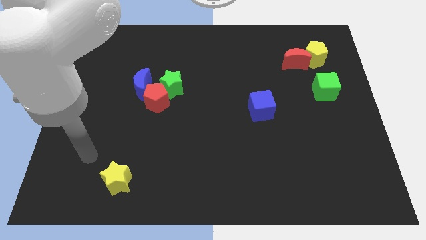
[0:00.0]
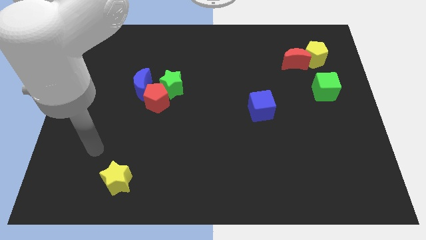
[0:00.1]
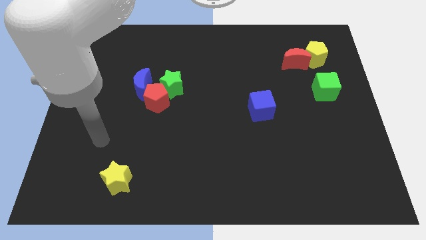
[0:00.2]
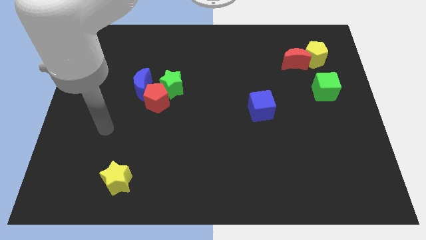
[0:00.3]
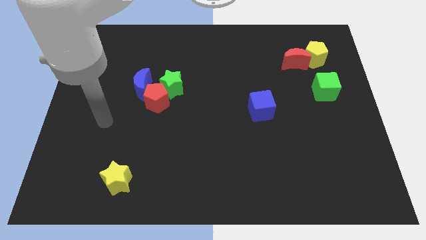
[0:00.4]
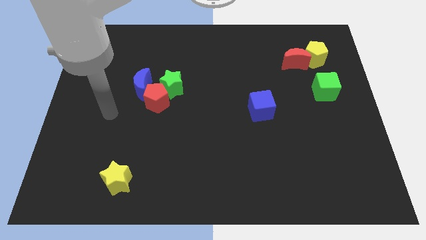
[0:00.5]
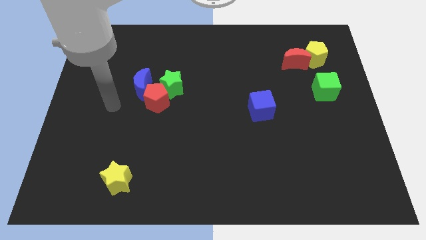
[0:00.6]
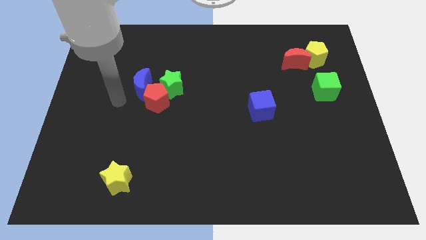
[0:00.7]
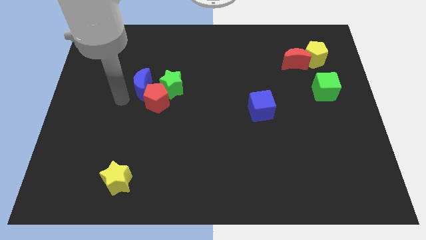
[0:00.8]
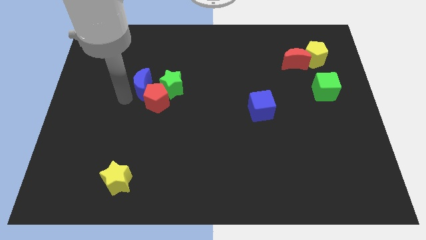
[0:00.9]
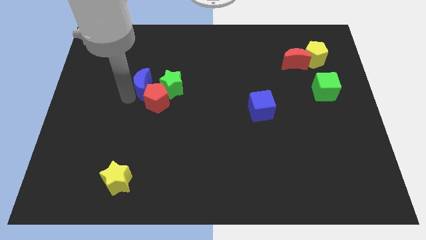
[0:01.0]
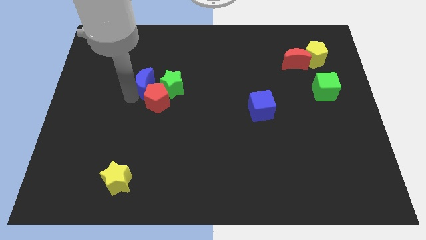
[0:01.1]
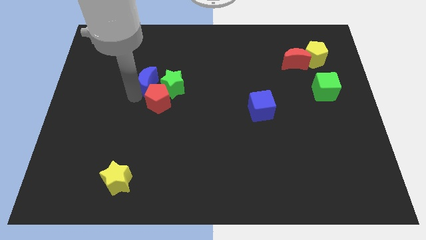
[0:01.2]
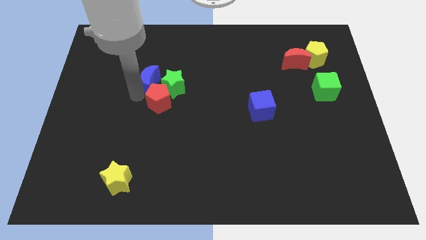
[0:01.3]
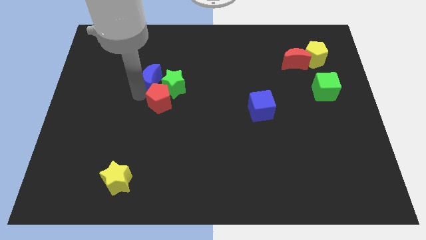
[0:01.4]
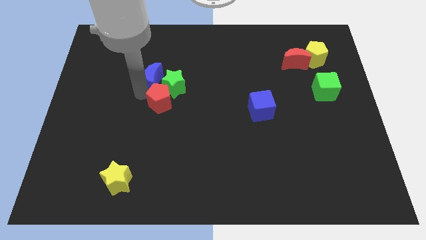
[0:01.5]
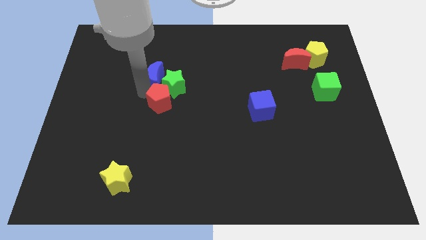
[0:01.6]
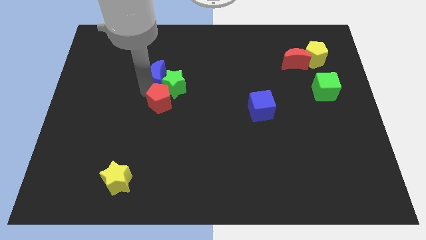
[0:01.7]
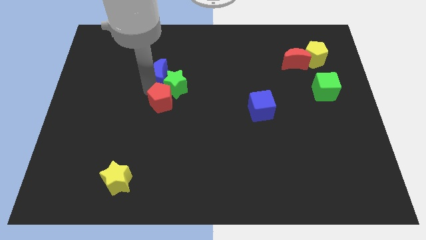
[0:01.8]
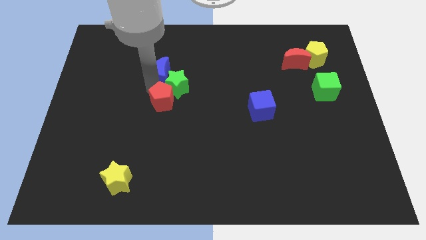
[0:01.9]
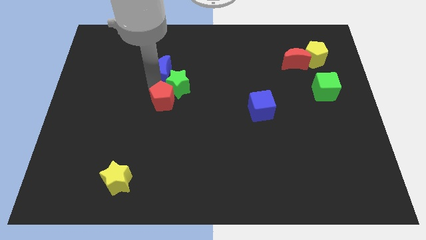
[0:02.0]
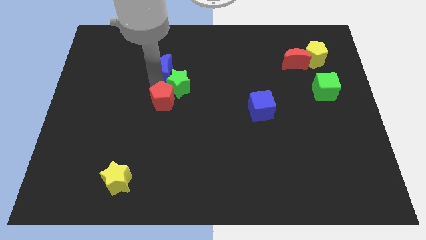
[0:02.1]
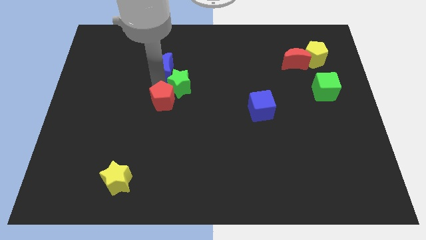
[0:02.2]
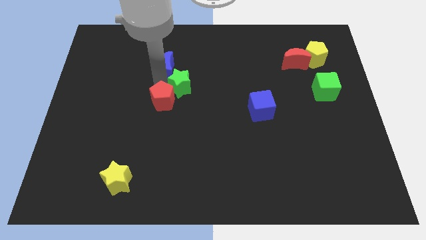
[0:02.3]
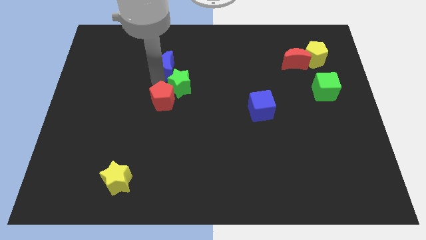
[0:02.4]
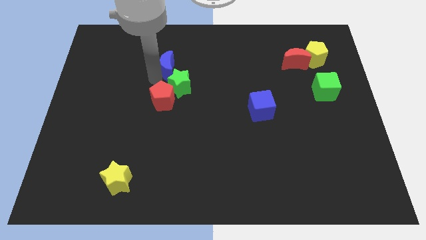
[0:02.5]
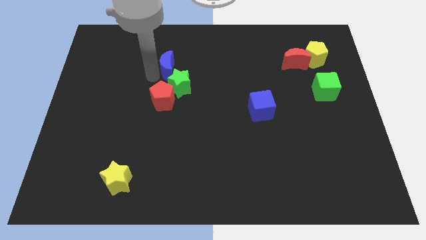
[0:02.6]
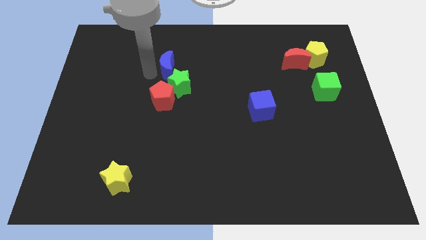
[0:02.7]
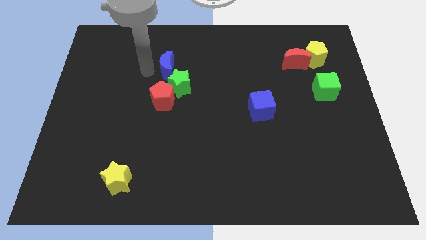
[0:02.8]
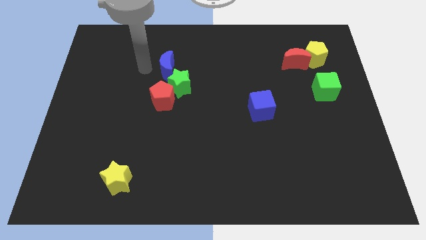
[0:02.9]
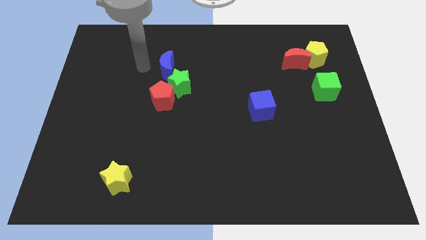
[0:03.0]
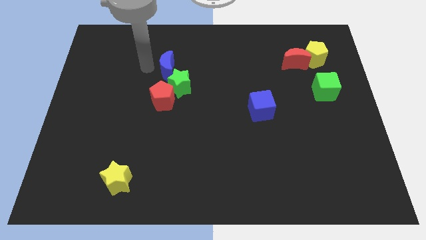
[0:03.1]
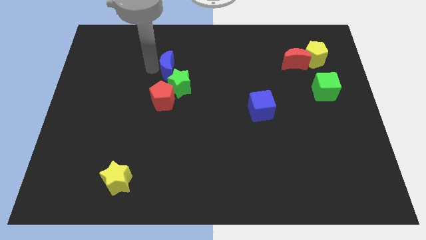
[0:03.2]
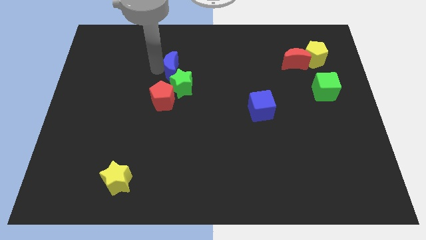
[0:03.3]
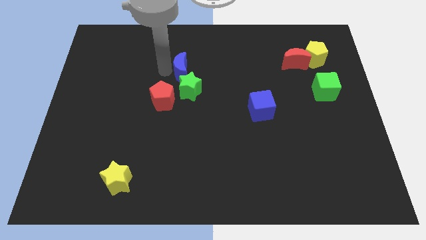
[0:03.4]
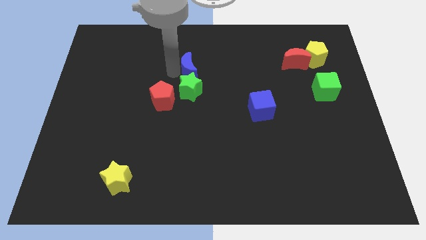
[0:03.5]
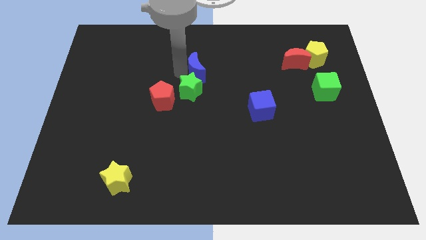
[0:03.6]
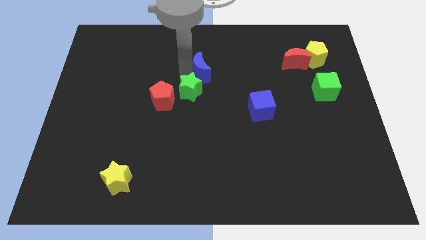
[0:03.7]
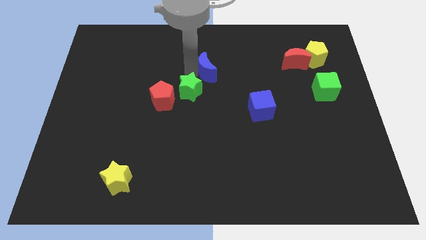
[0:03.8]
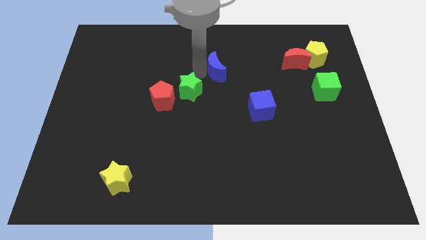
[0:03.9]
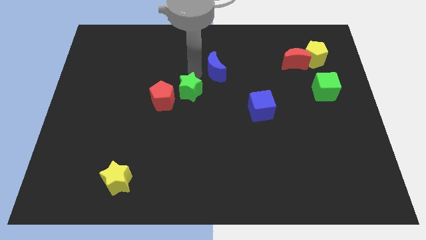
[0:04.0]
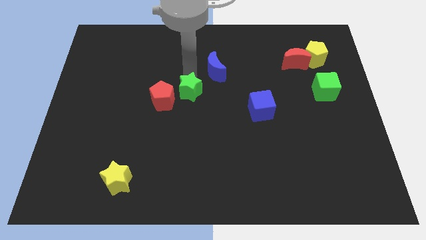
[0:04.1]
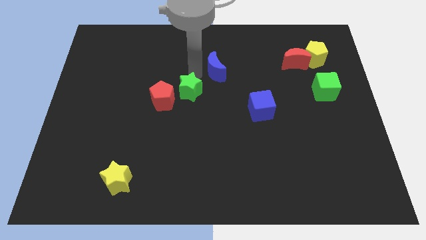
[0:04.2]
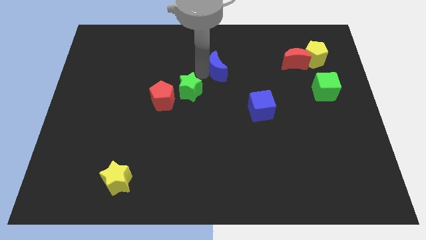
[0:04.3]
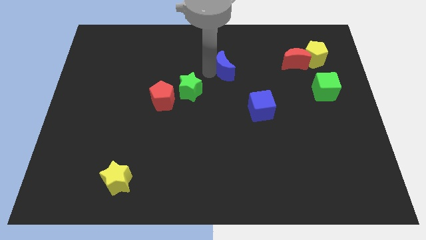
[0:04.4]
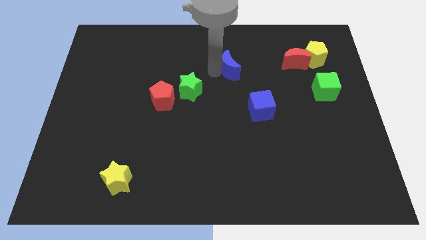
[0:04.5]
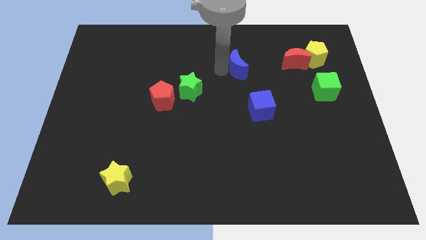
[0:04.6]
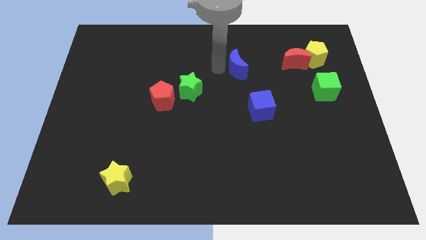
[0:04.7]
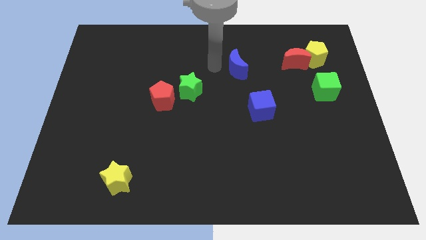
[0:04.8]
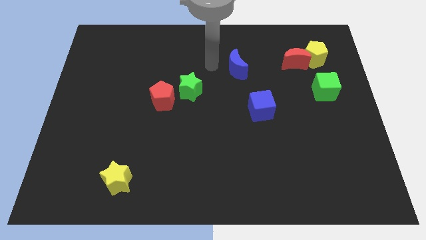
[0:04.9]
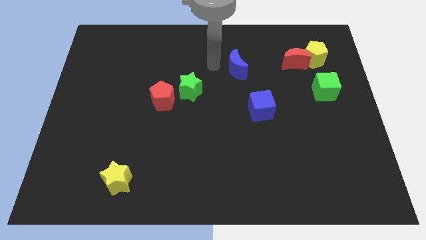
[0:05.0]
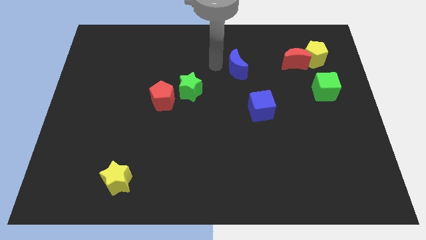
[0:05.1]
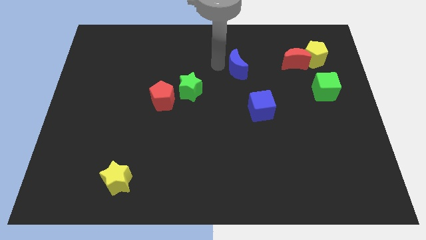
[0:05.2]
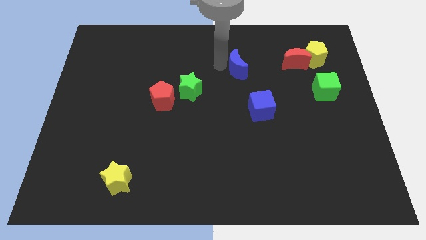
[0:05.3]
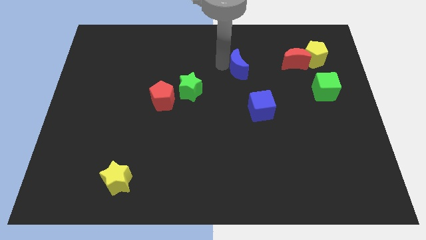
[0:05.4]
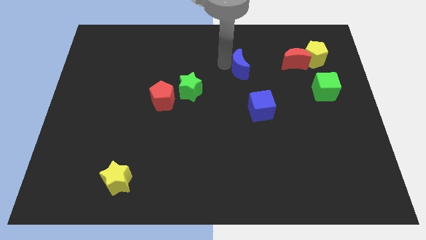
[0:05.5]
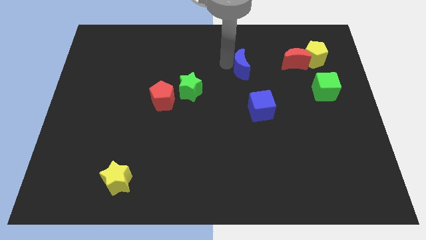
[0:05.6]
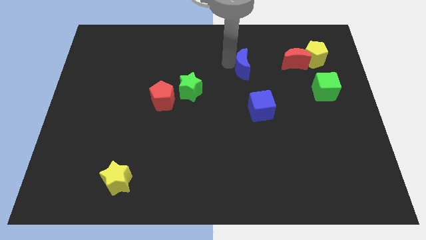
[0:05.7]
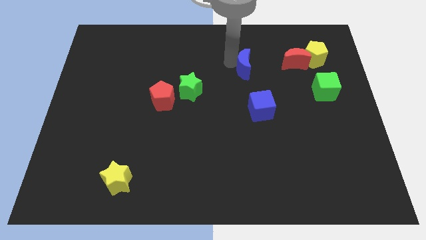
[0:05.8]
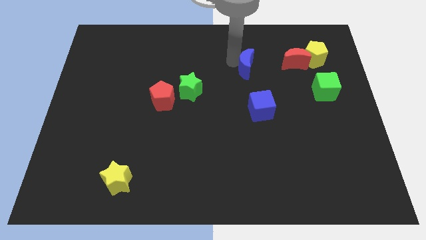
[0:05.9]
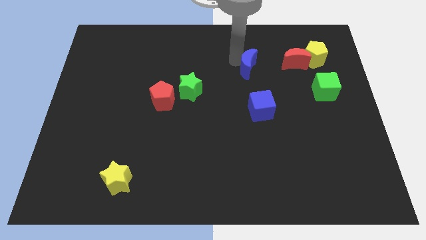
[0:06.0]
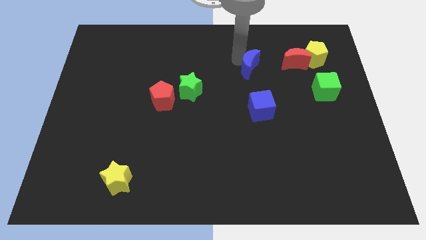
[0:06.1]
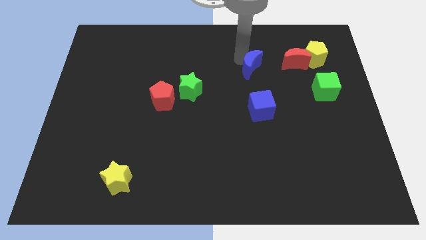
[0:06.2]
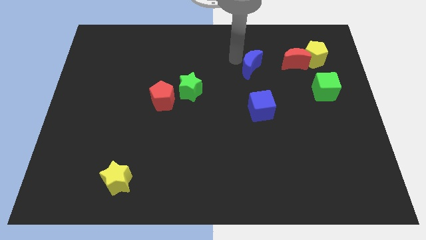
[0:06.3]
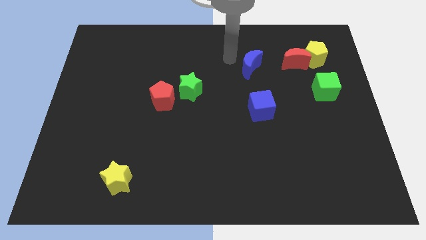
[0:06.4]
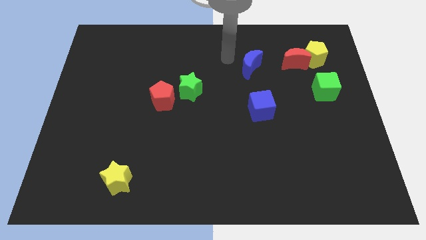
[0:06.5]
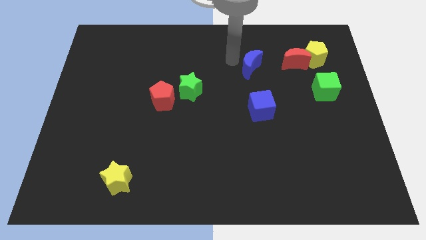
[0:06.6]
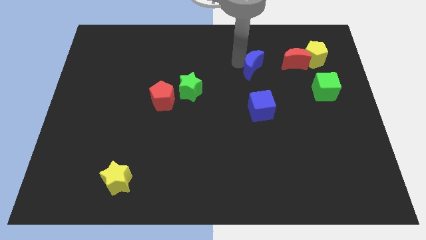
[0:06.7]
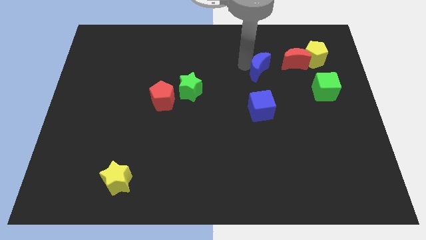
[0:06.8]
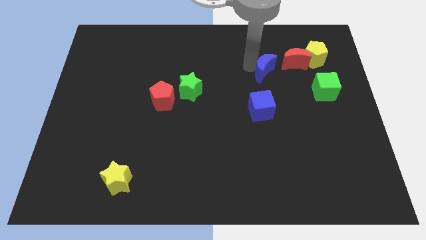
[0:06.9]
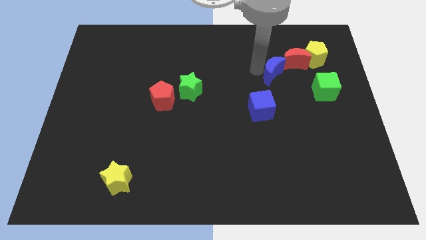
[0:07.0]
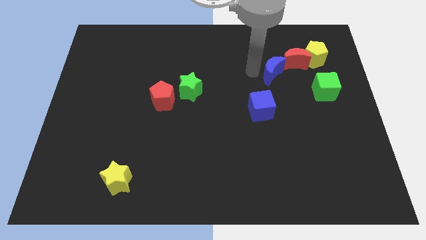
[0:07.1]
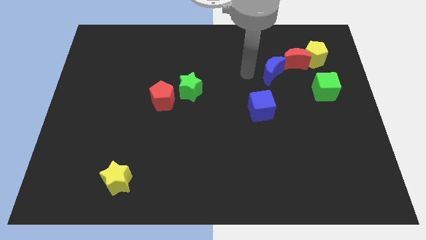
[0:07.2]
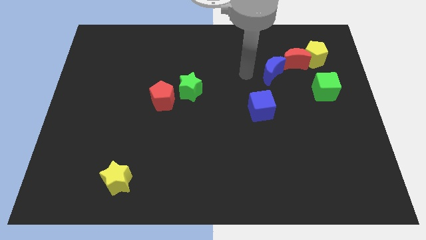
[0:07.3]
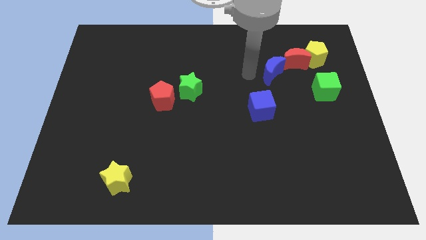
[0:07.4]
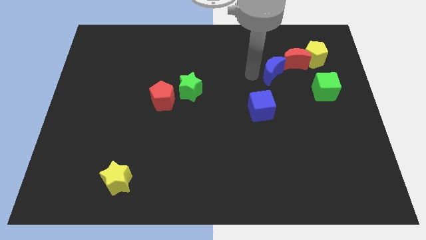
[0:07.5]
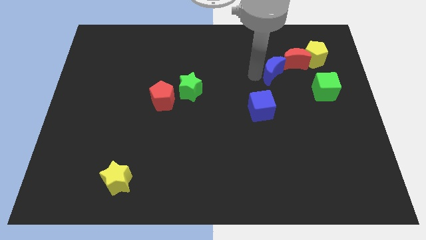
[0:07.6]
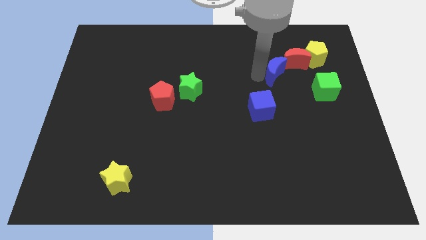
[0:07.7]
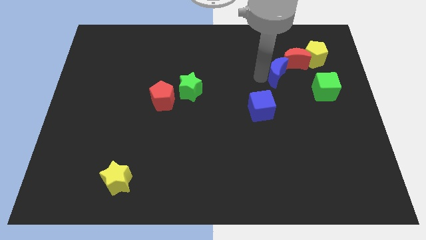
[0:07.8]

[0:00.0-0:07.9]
put the blue moon diagonally down and to the left of the yellow pentagon
